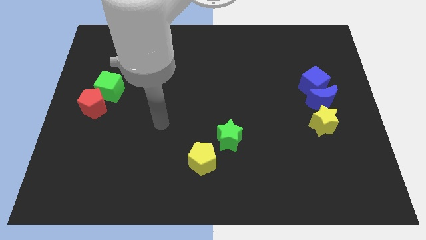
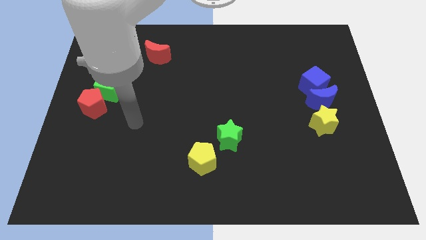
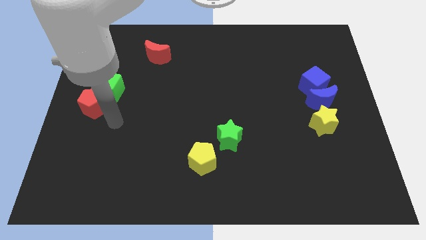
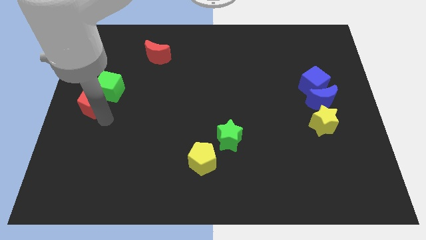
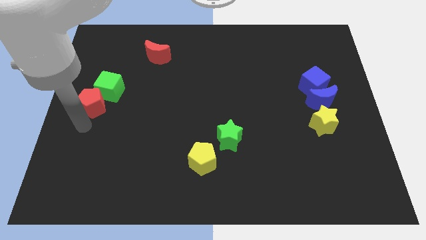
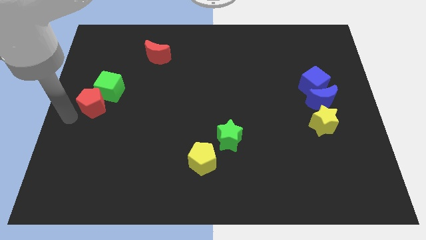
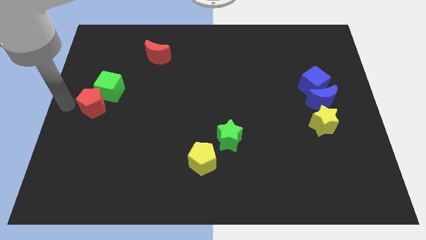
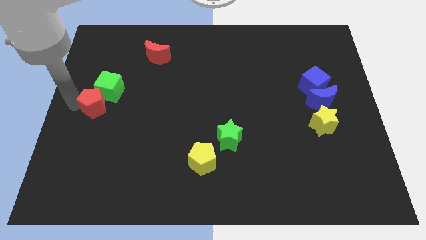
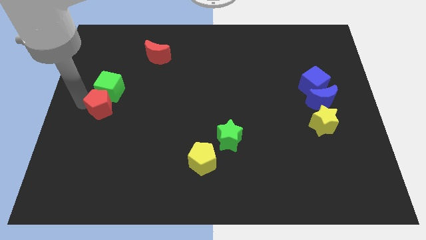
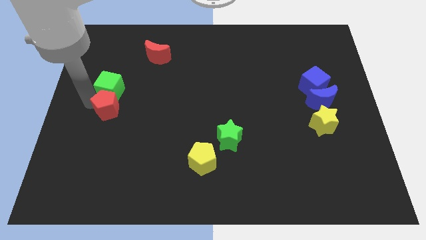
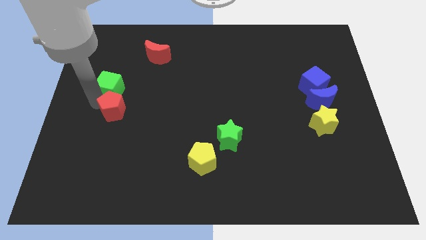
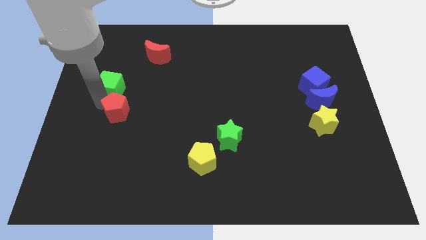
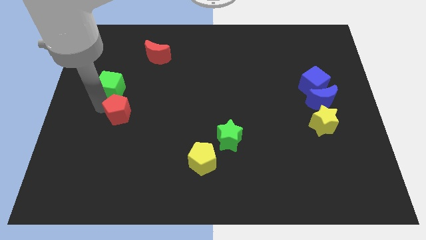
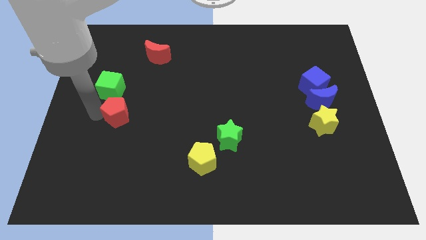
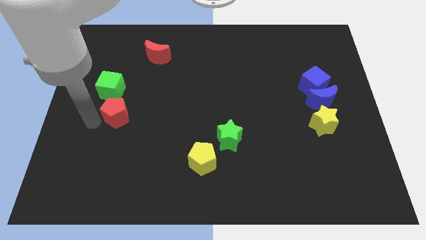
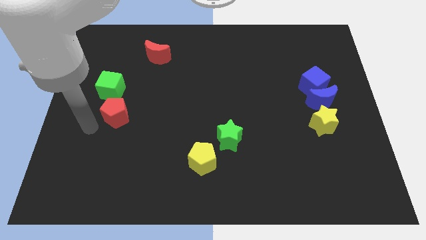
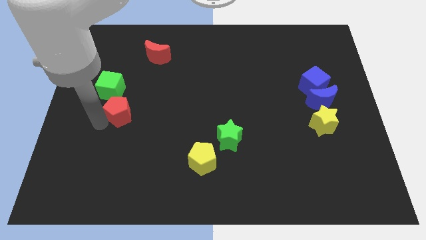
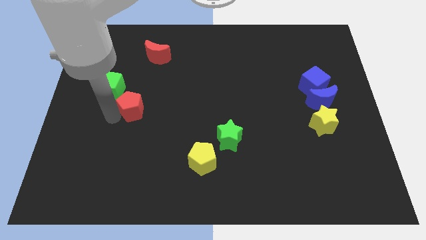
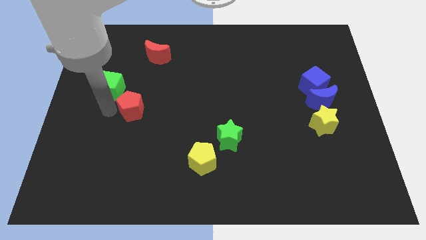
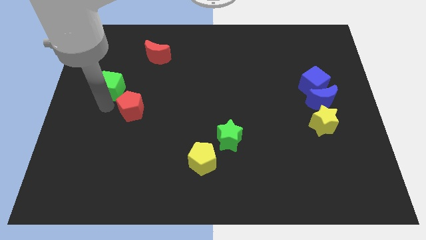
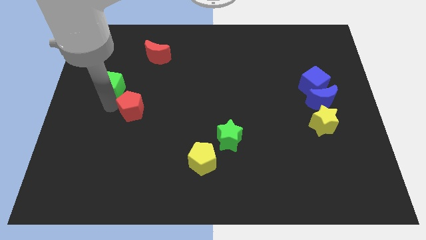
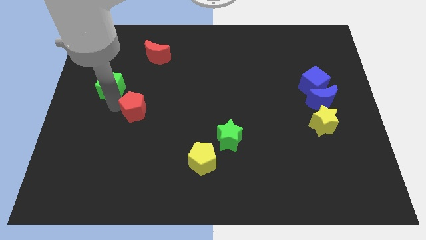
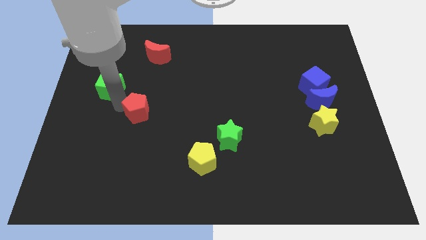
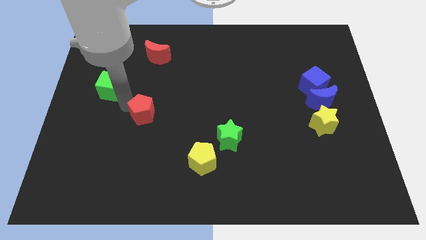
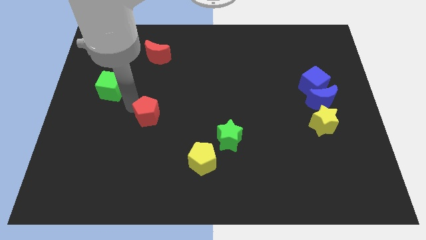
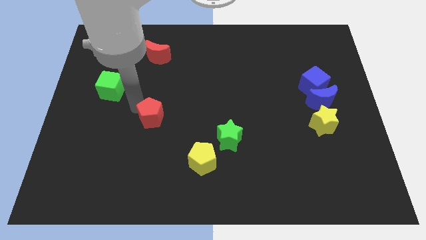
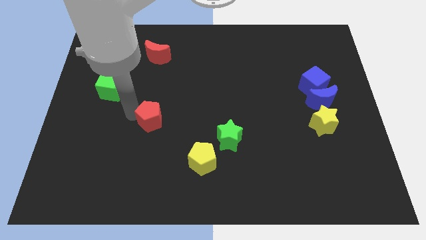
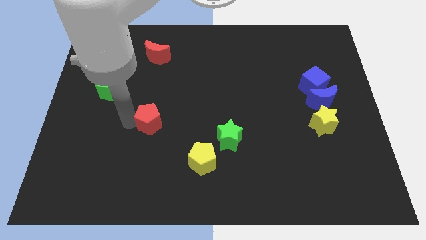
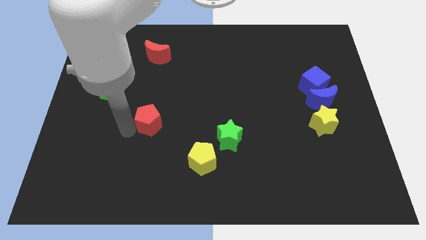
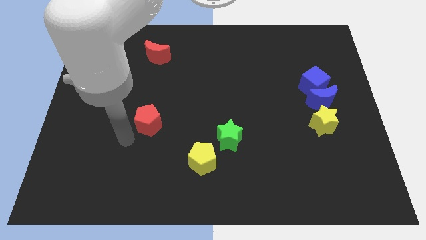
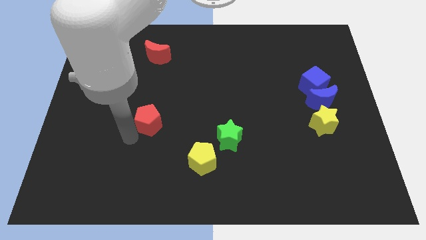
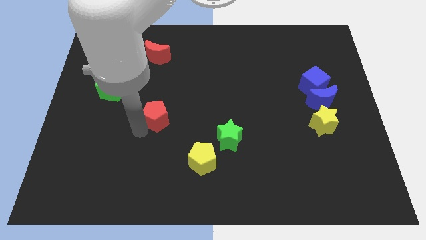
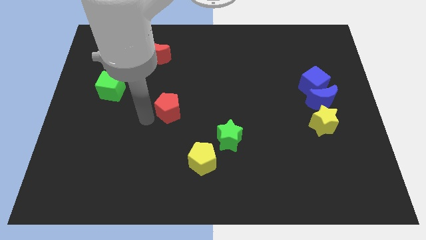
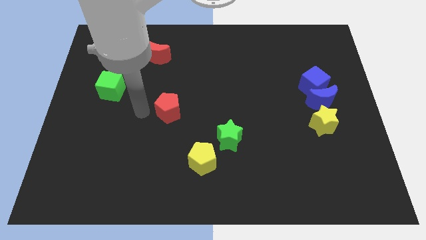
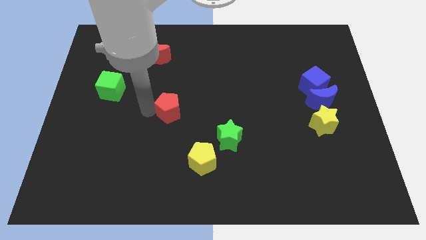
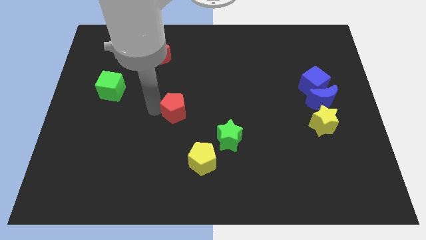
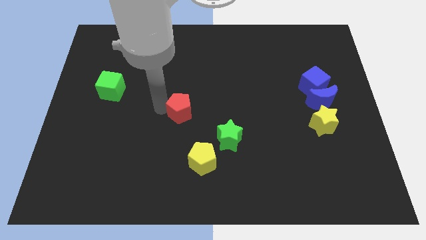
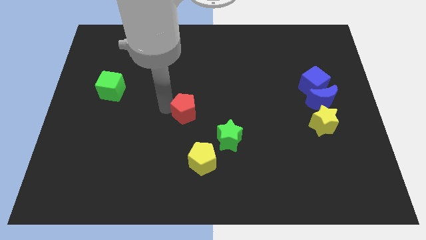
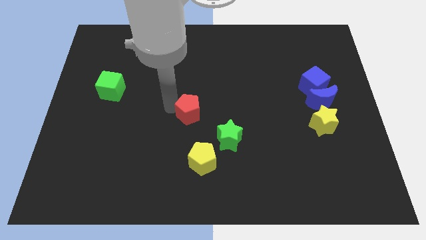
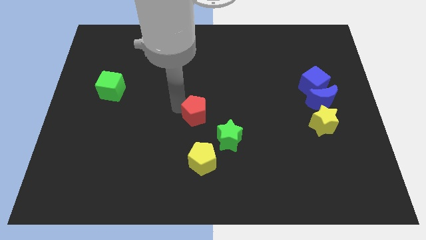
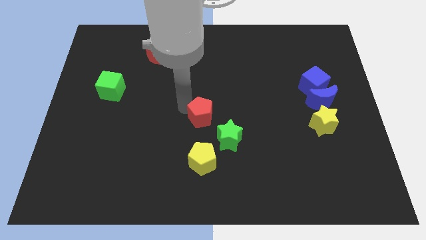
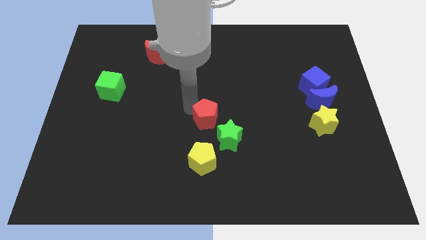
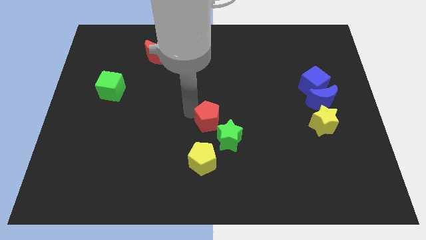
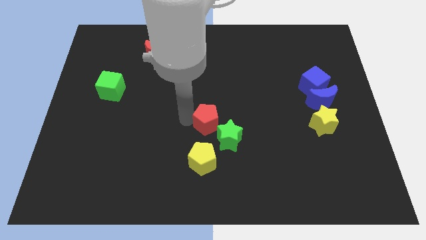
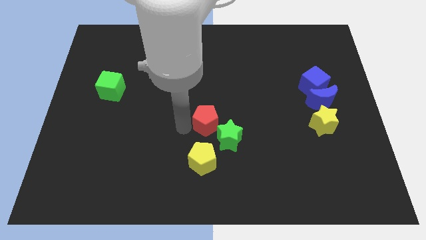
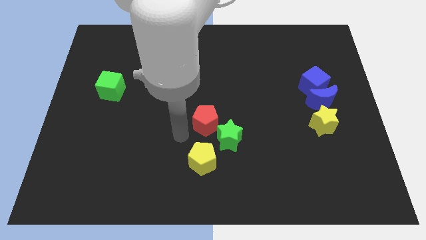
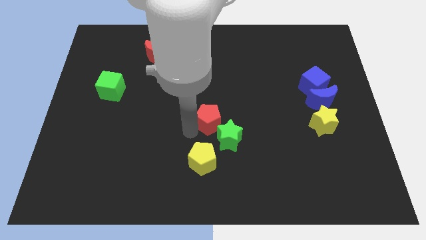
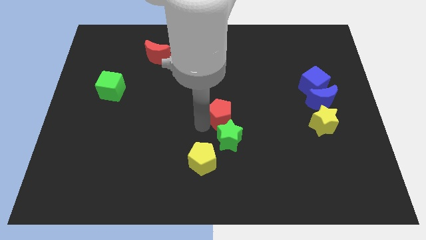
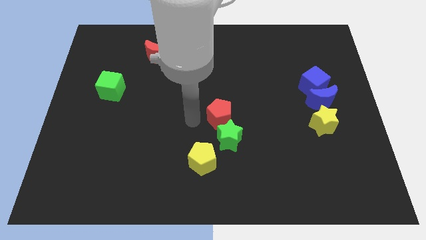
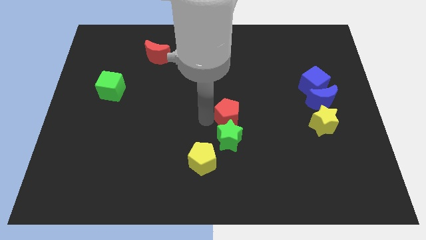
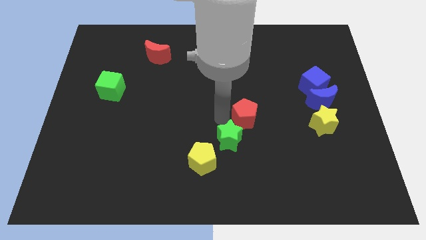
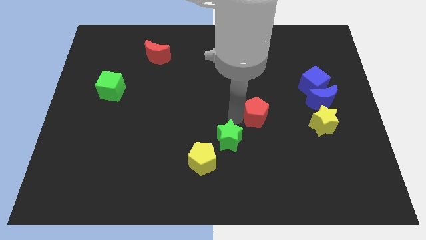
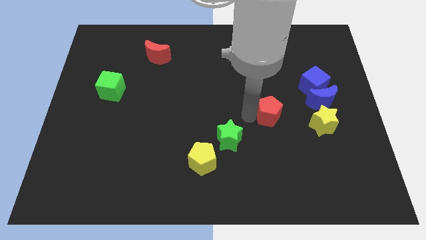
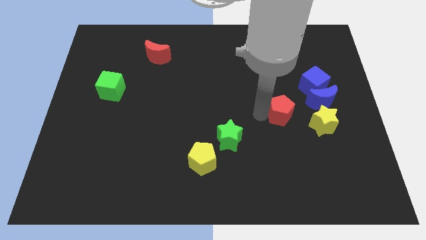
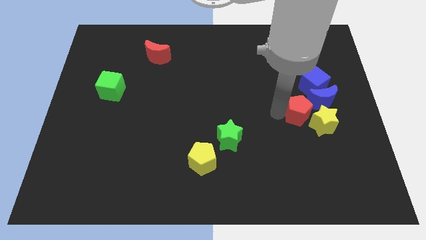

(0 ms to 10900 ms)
move the red pentagon towards the yellow star

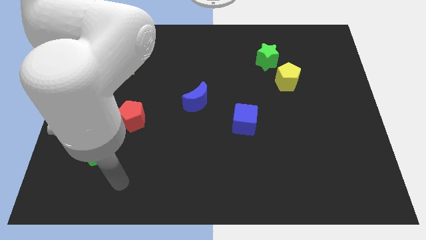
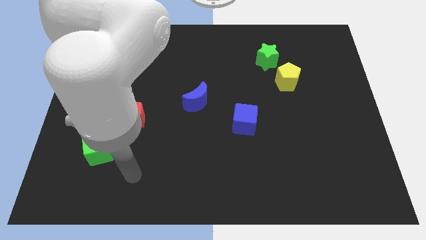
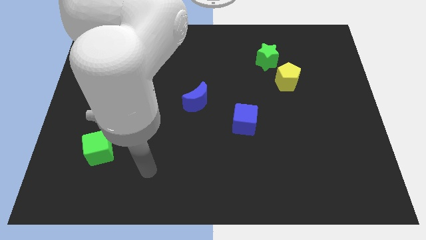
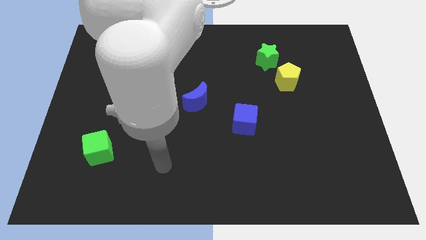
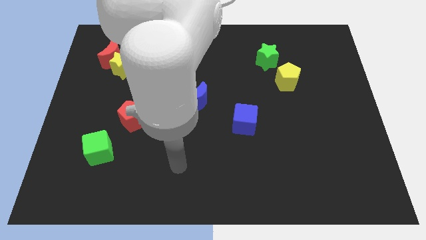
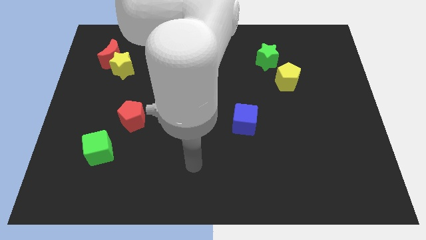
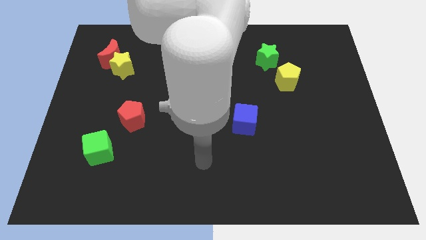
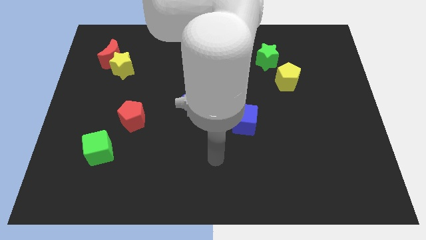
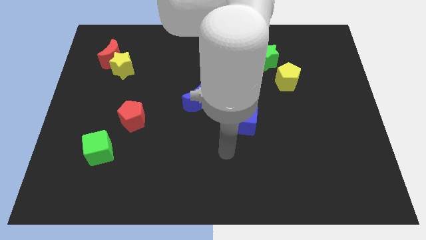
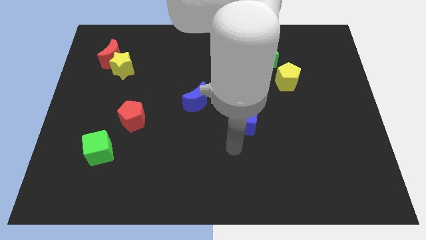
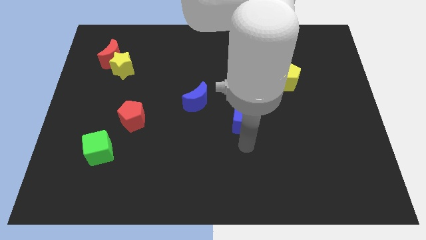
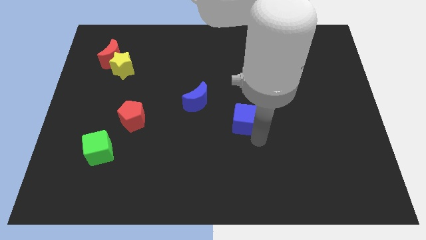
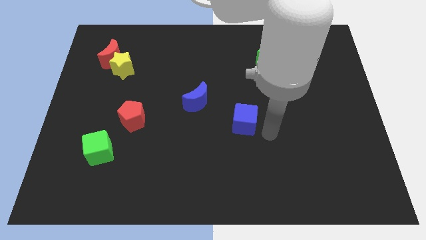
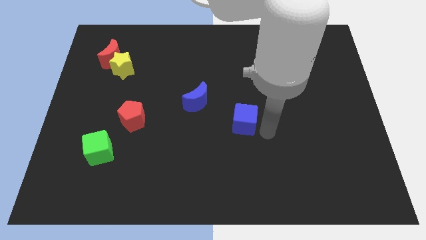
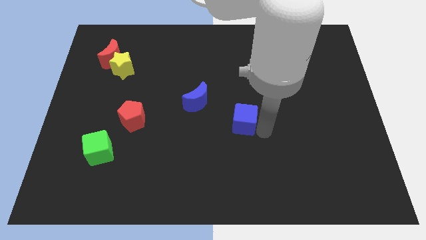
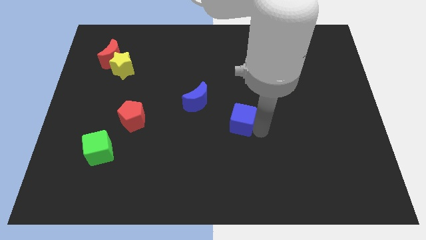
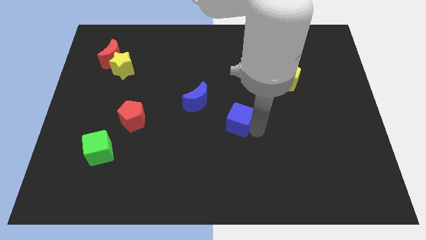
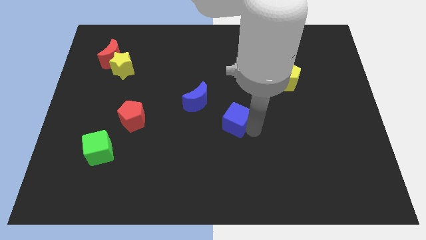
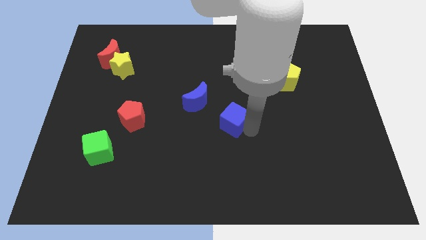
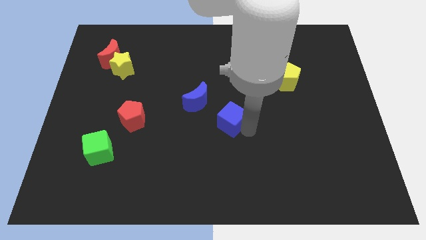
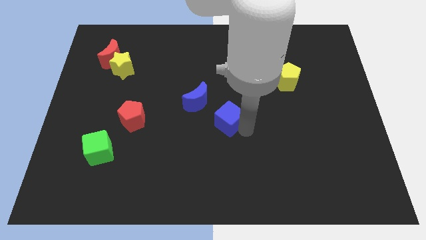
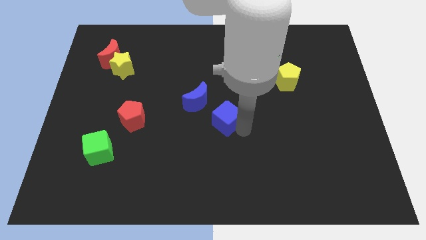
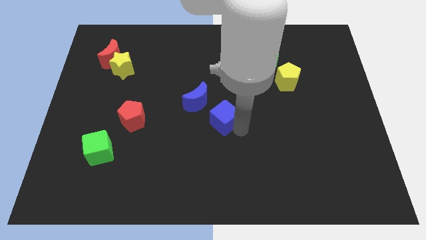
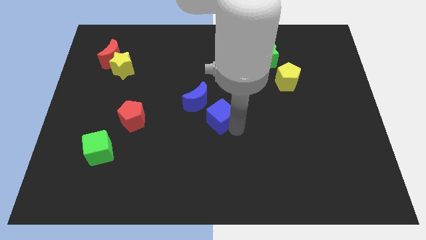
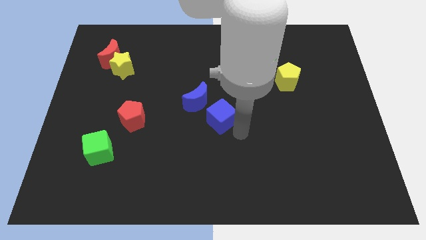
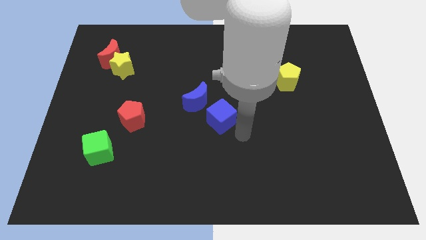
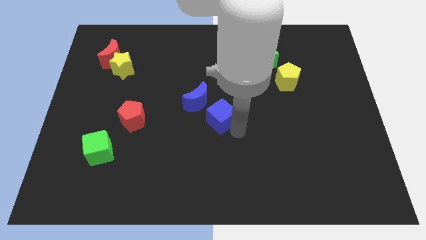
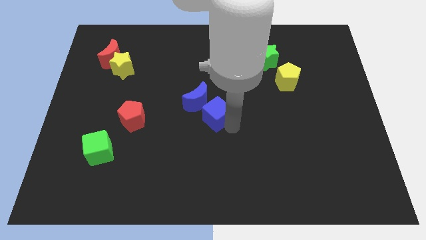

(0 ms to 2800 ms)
slide the blue cube next to the blue moon
